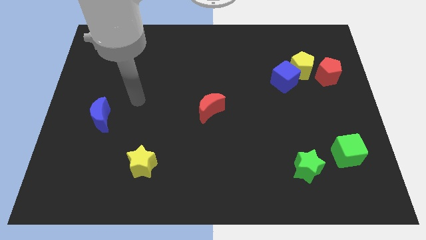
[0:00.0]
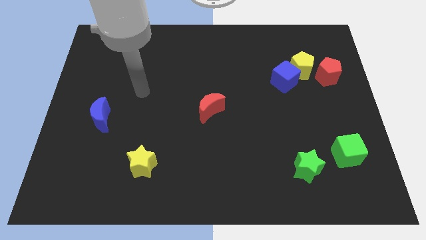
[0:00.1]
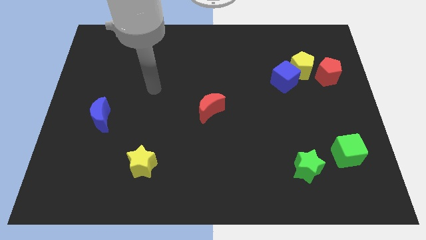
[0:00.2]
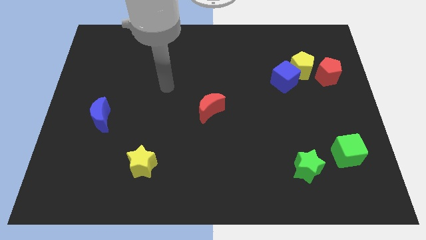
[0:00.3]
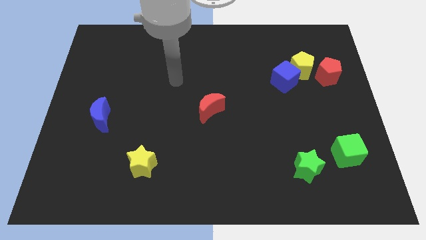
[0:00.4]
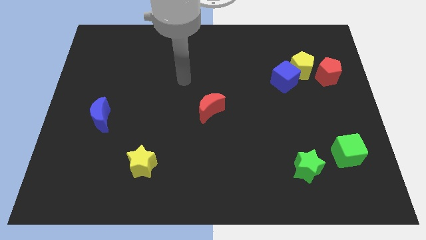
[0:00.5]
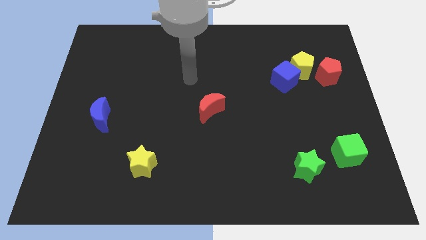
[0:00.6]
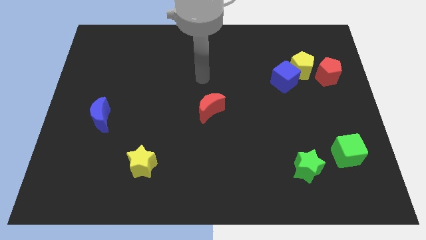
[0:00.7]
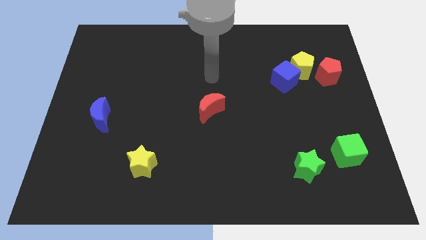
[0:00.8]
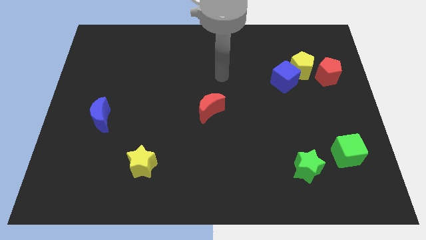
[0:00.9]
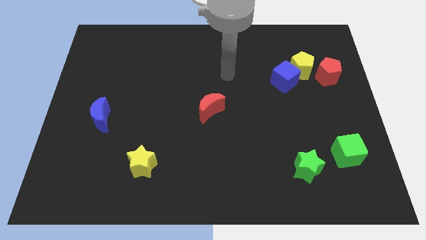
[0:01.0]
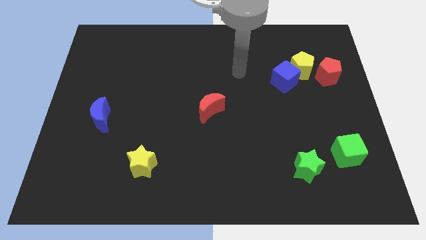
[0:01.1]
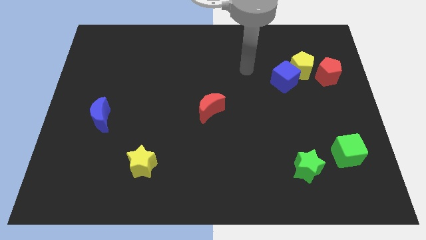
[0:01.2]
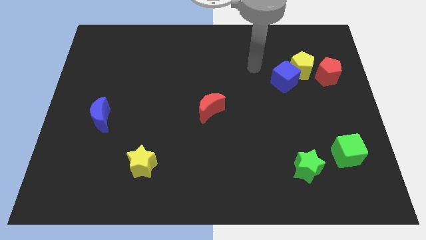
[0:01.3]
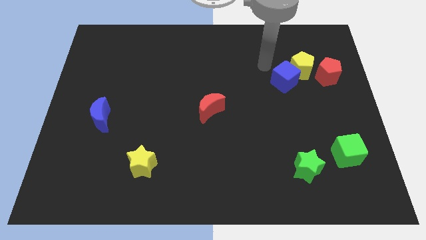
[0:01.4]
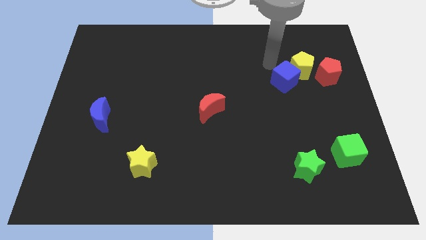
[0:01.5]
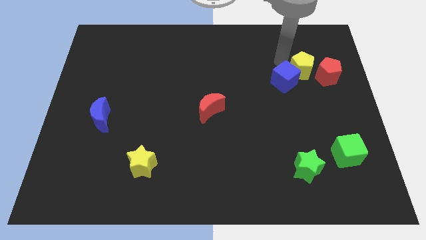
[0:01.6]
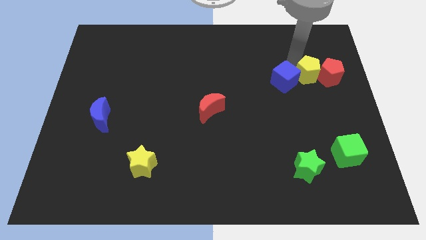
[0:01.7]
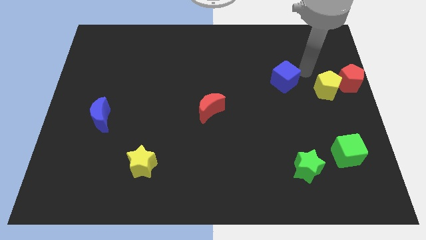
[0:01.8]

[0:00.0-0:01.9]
separate the blue cube from the yellow pentagon

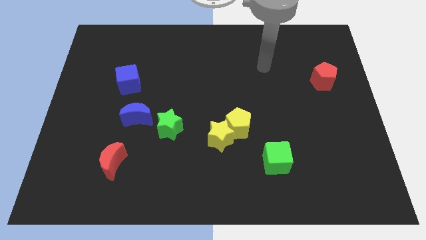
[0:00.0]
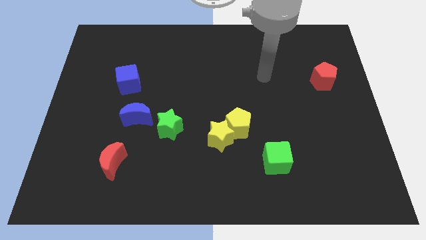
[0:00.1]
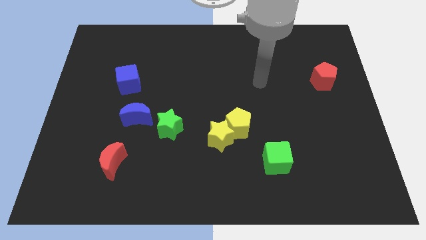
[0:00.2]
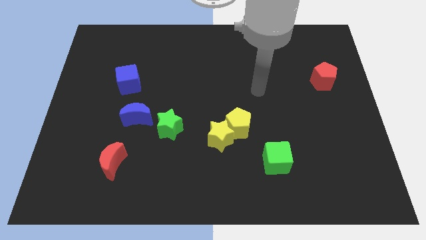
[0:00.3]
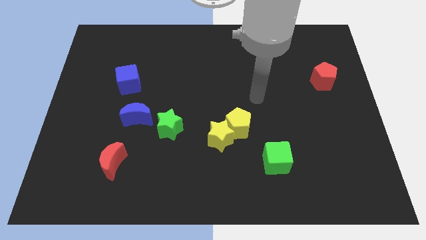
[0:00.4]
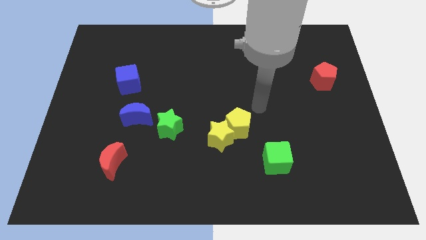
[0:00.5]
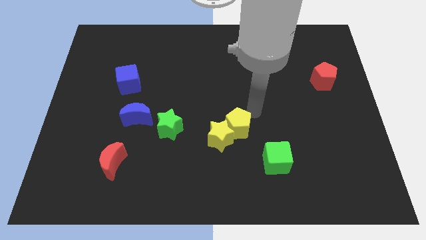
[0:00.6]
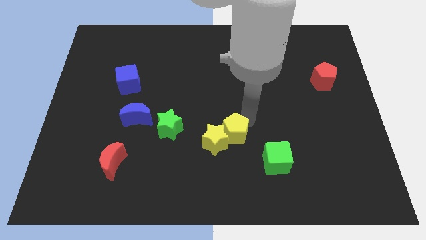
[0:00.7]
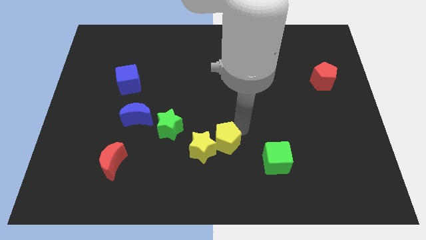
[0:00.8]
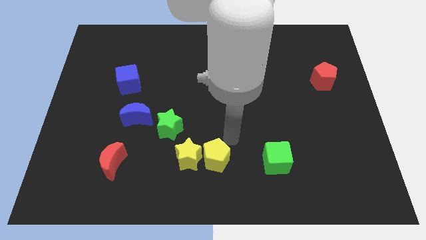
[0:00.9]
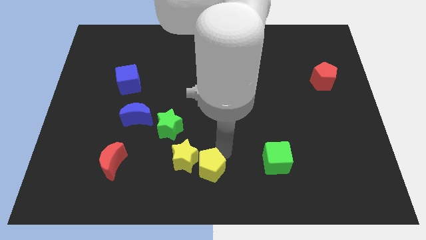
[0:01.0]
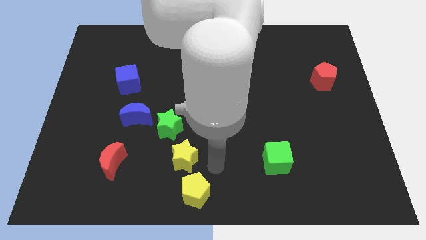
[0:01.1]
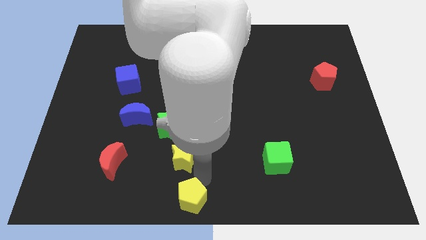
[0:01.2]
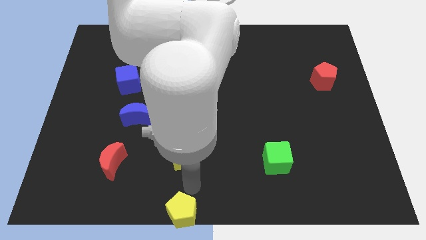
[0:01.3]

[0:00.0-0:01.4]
pull the yellow star apart from the yellow pentagon

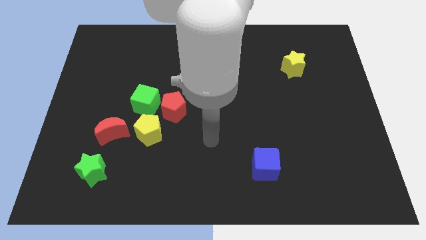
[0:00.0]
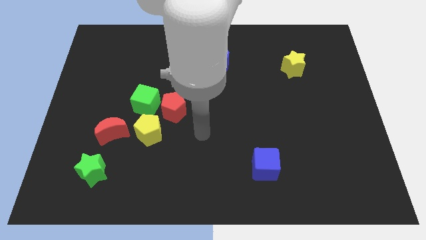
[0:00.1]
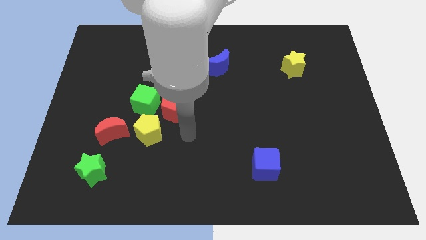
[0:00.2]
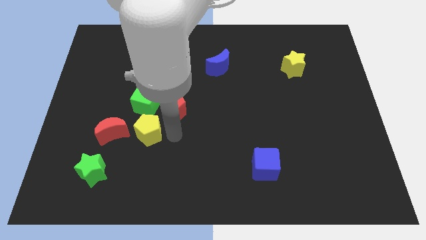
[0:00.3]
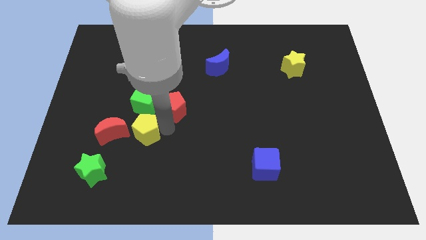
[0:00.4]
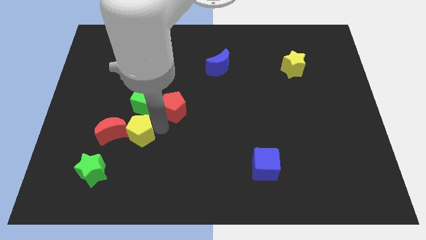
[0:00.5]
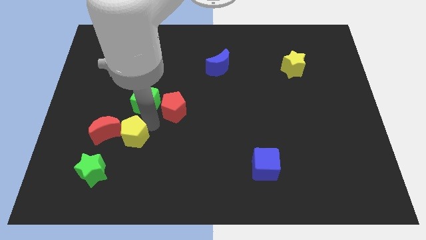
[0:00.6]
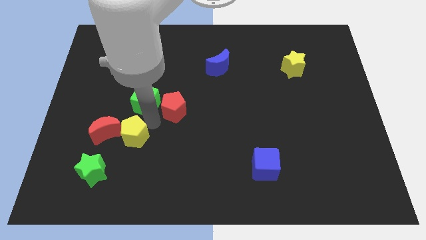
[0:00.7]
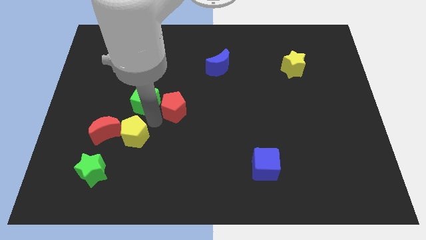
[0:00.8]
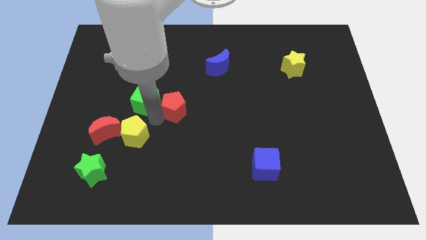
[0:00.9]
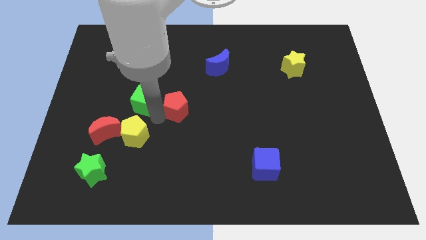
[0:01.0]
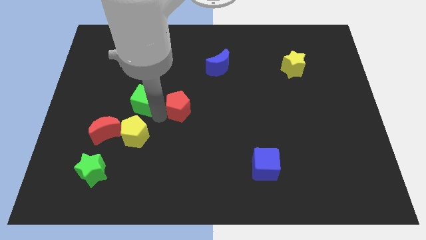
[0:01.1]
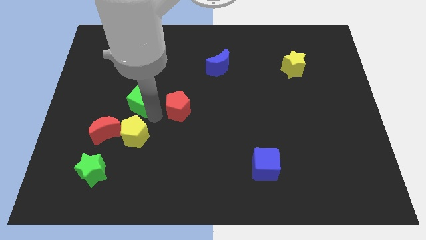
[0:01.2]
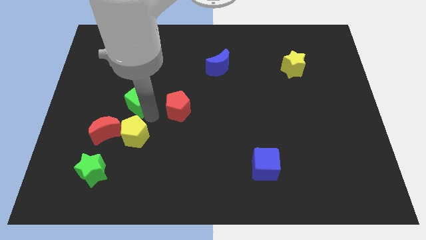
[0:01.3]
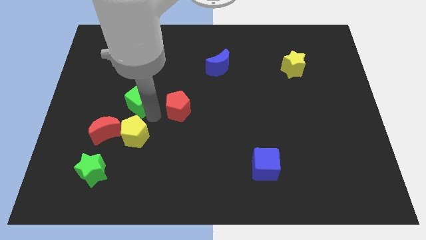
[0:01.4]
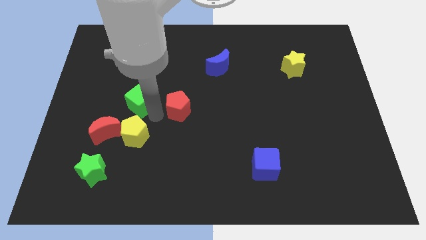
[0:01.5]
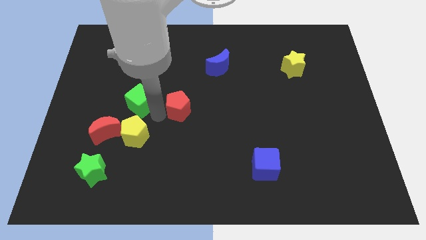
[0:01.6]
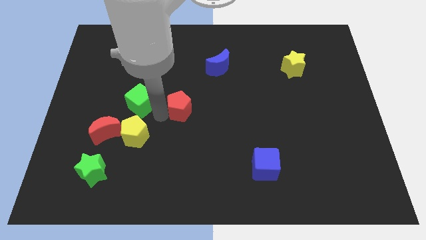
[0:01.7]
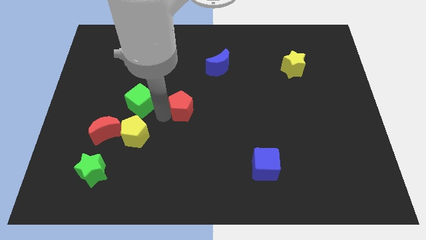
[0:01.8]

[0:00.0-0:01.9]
move the red pentagon away from the green cube and yellow pentagon

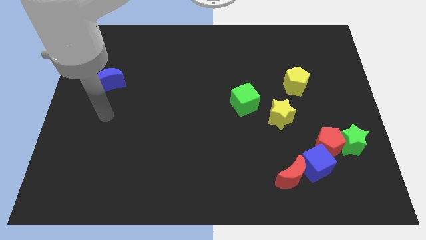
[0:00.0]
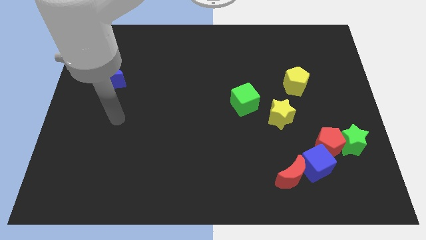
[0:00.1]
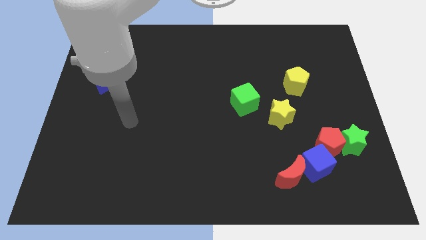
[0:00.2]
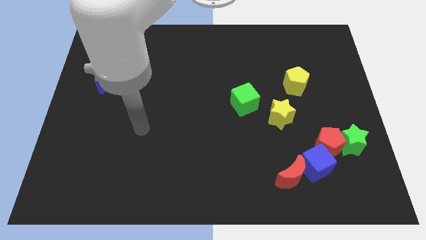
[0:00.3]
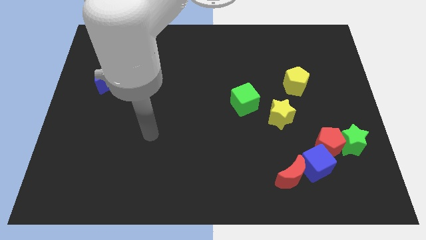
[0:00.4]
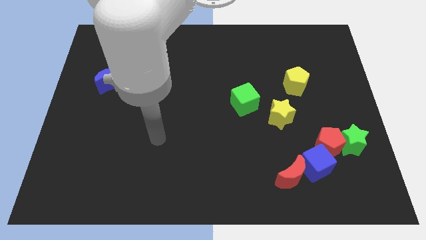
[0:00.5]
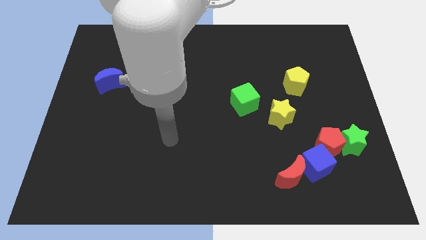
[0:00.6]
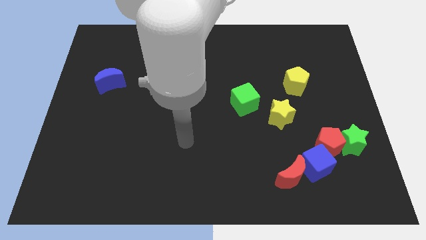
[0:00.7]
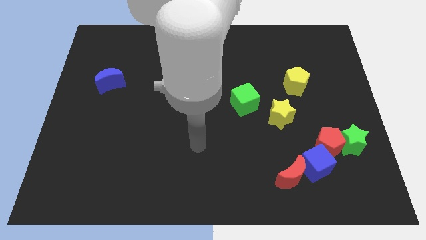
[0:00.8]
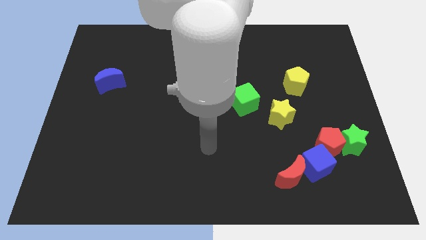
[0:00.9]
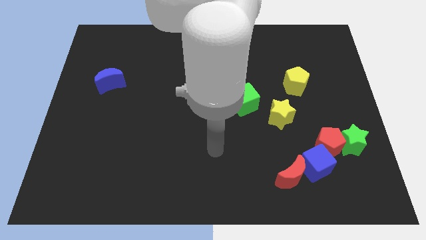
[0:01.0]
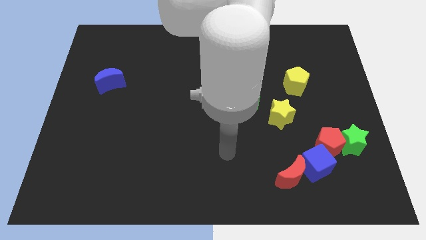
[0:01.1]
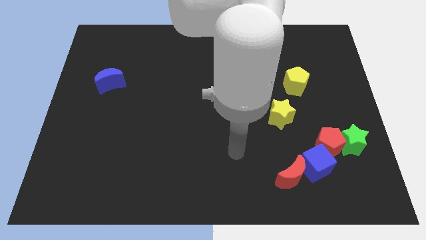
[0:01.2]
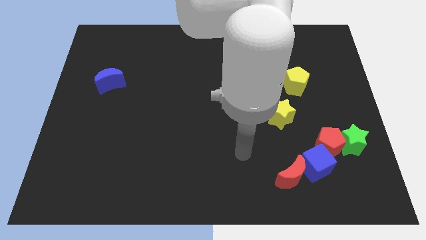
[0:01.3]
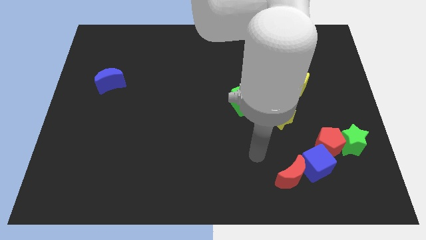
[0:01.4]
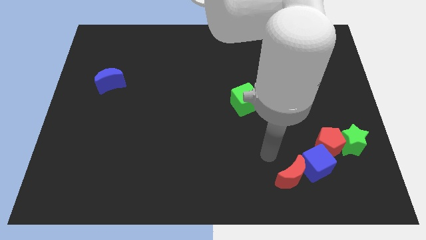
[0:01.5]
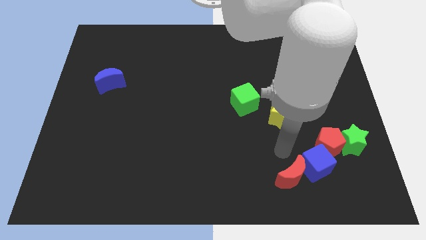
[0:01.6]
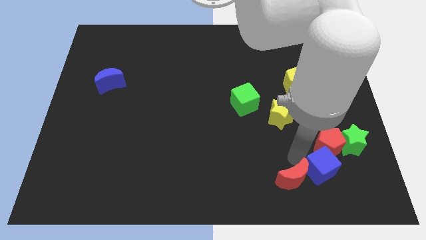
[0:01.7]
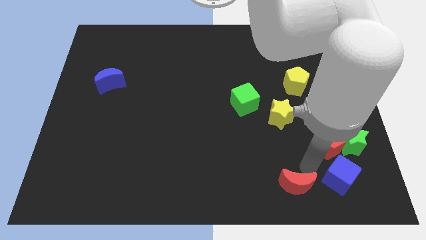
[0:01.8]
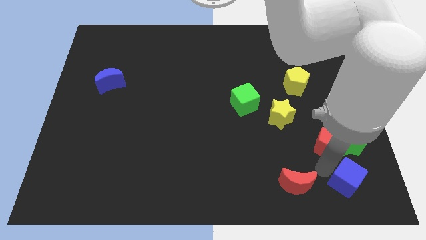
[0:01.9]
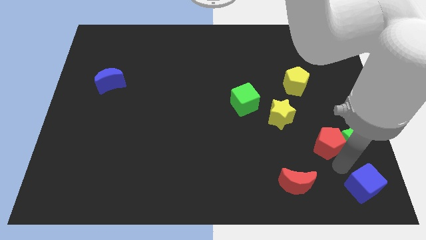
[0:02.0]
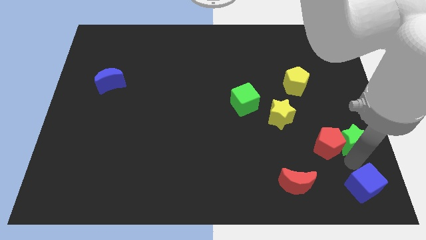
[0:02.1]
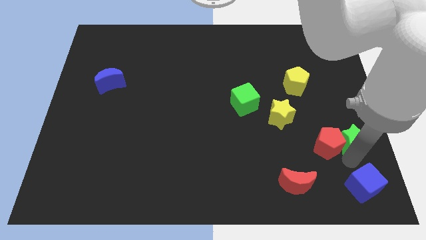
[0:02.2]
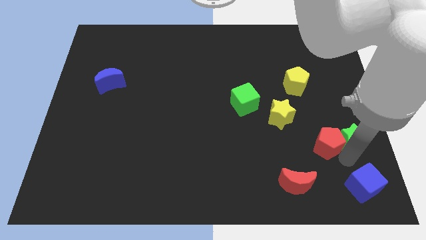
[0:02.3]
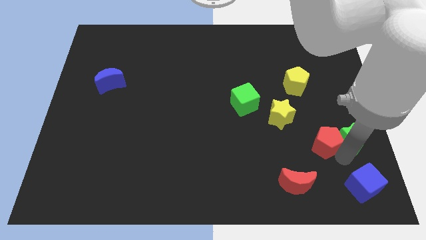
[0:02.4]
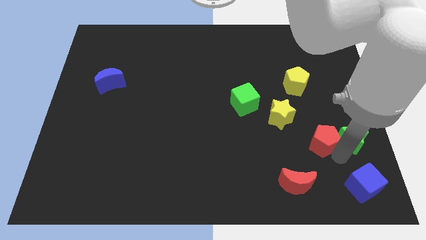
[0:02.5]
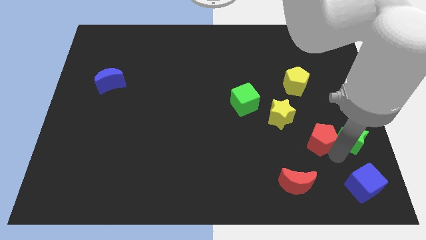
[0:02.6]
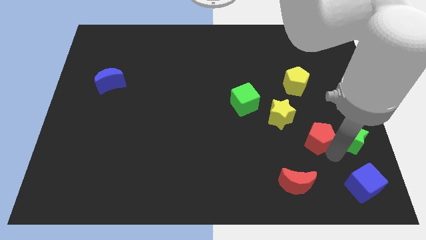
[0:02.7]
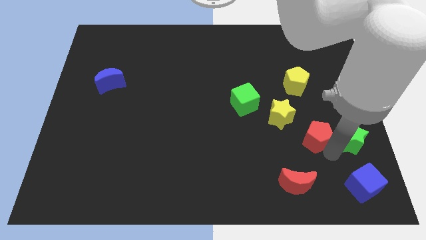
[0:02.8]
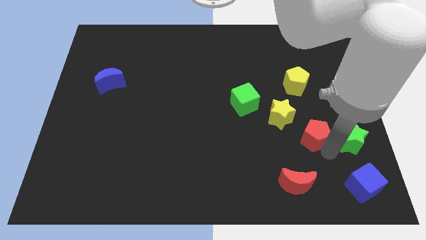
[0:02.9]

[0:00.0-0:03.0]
move the red pentagon away from the green star and blue cube

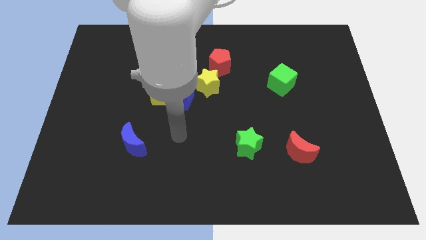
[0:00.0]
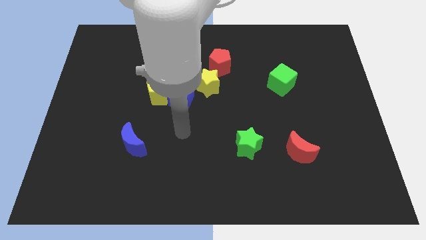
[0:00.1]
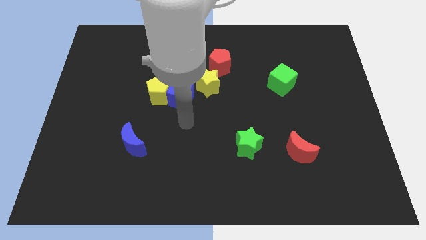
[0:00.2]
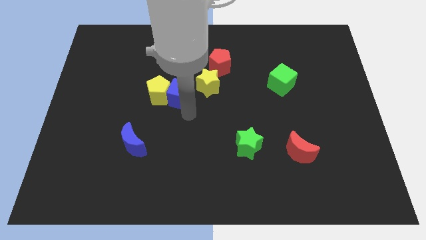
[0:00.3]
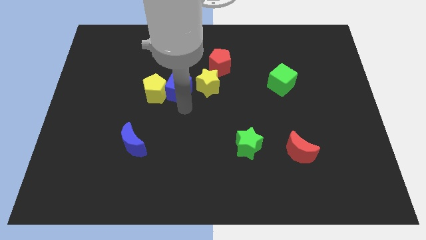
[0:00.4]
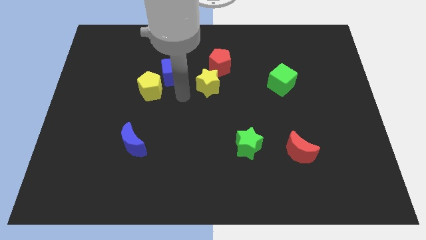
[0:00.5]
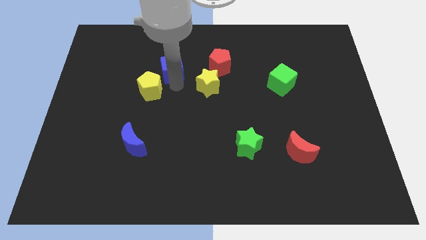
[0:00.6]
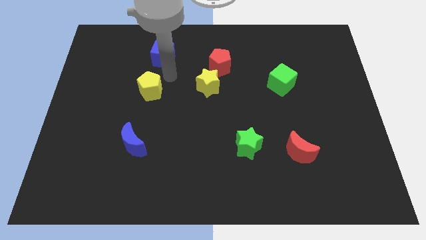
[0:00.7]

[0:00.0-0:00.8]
pull the yellow pentagon apart from the blue cube

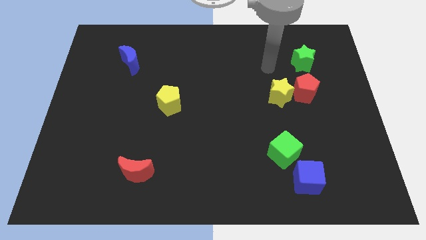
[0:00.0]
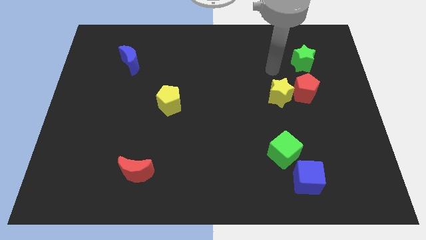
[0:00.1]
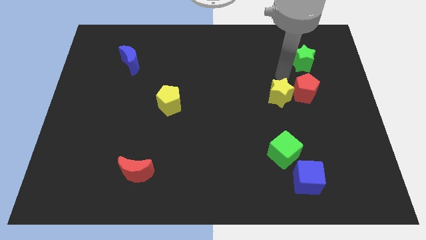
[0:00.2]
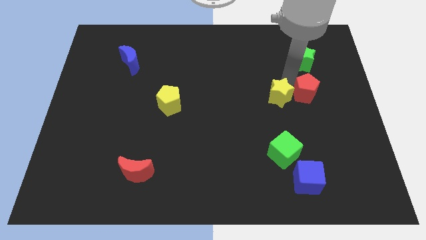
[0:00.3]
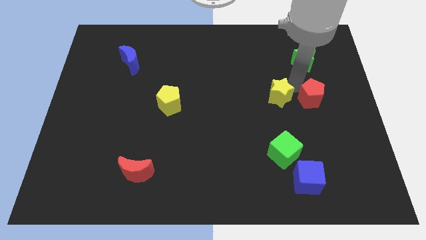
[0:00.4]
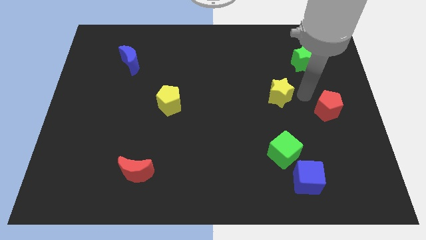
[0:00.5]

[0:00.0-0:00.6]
move the yellow star away from the red pentagon
